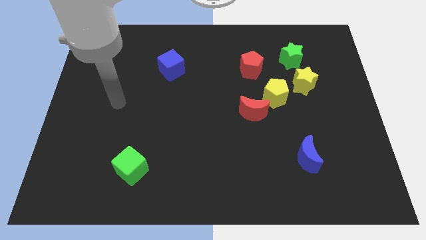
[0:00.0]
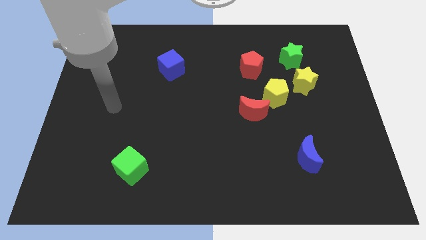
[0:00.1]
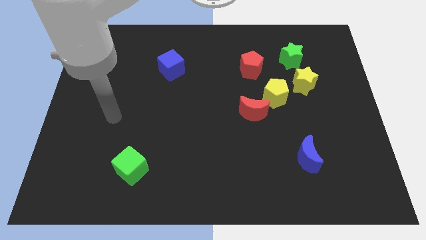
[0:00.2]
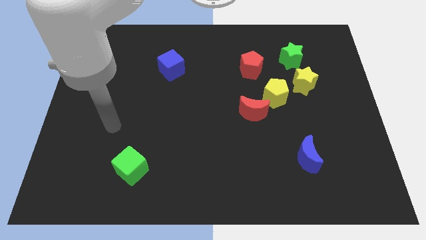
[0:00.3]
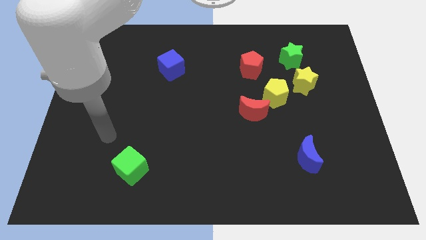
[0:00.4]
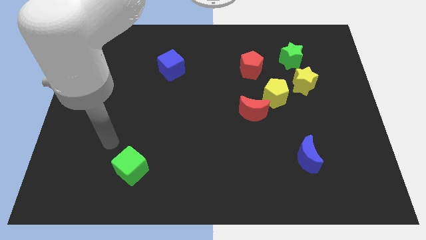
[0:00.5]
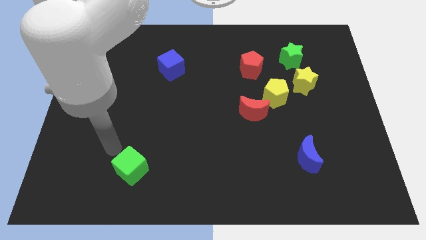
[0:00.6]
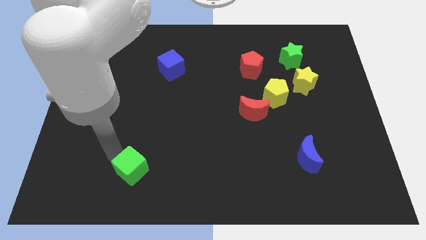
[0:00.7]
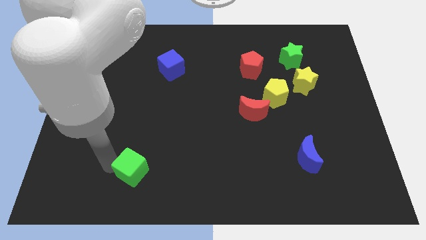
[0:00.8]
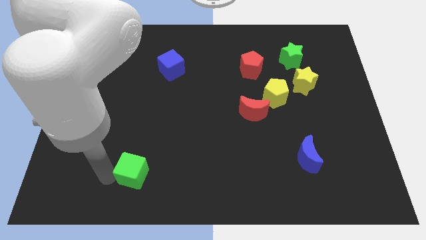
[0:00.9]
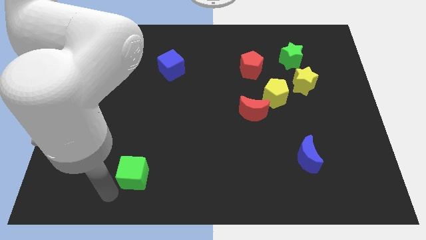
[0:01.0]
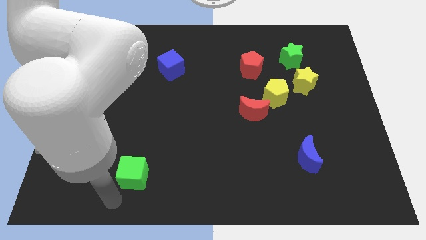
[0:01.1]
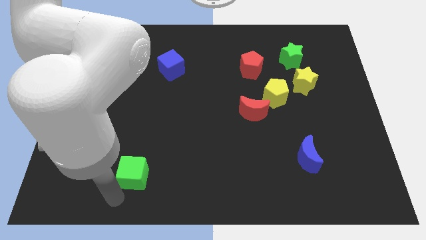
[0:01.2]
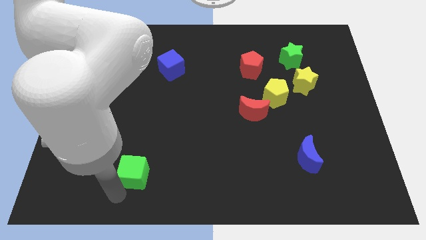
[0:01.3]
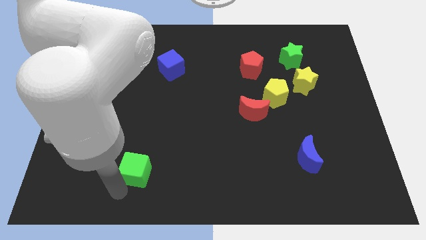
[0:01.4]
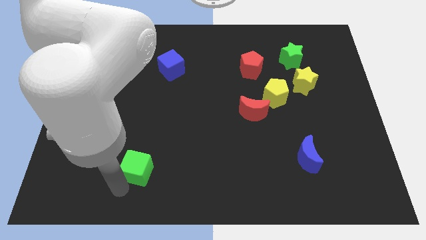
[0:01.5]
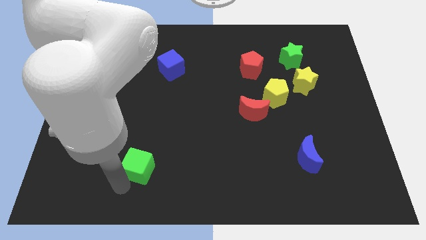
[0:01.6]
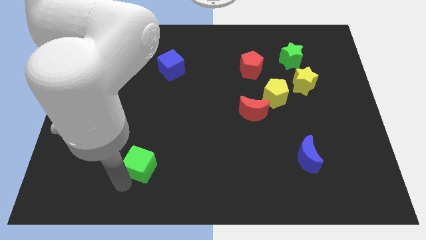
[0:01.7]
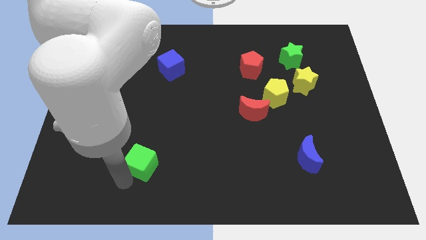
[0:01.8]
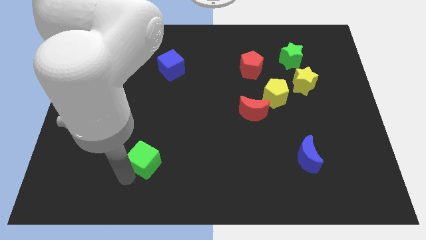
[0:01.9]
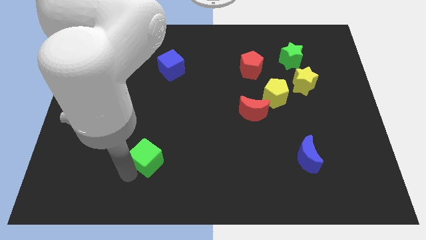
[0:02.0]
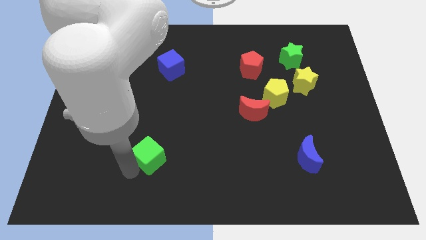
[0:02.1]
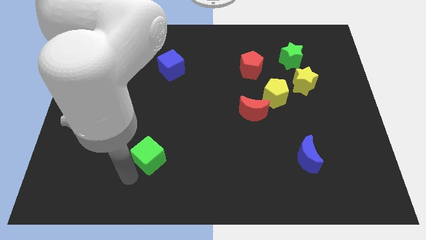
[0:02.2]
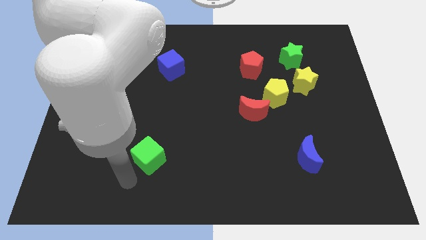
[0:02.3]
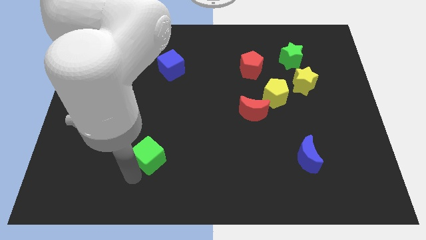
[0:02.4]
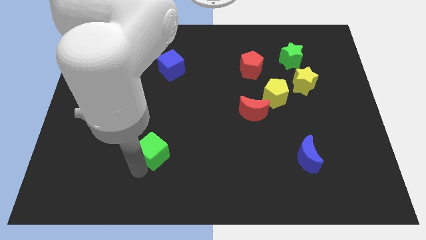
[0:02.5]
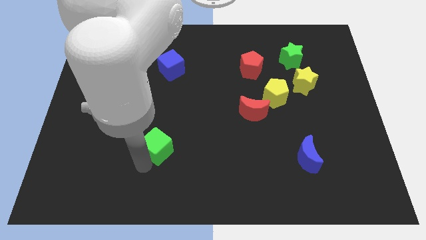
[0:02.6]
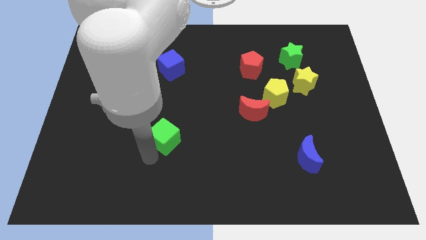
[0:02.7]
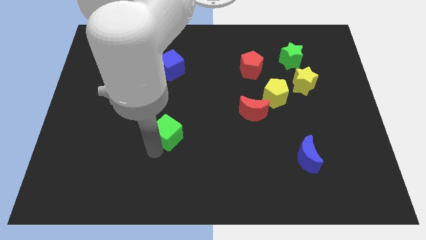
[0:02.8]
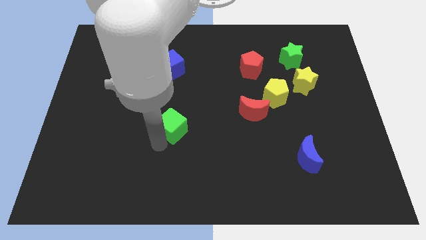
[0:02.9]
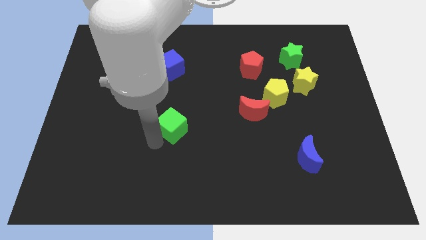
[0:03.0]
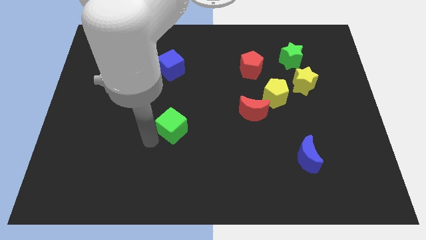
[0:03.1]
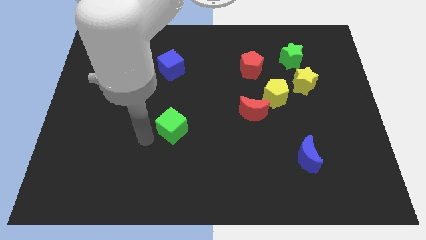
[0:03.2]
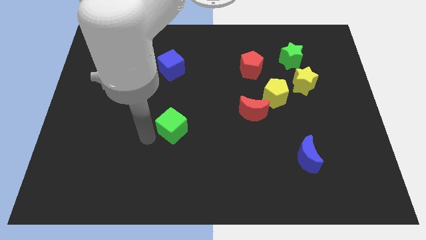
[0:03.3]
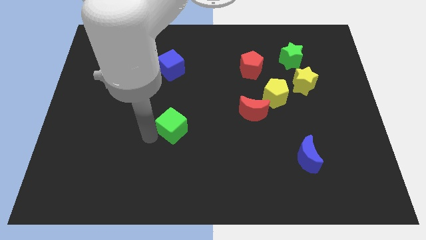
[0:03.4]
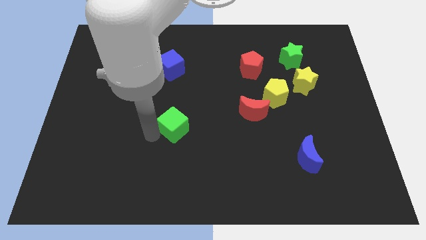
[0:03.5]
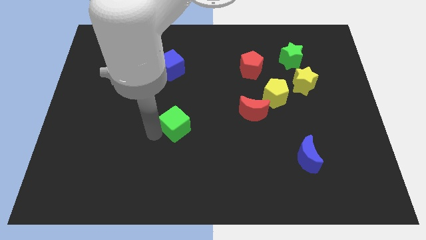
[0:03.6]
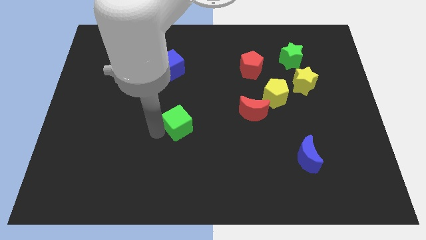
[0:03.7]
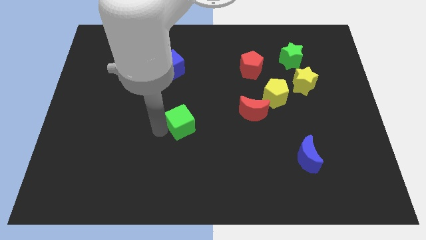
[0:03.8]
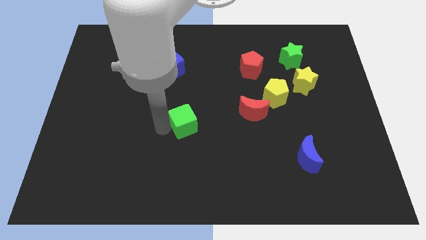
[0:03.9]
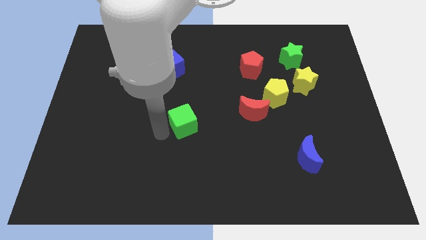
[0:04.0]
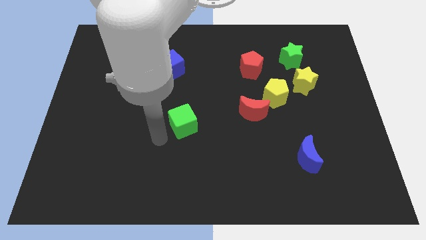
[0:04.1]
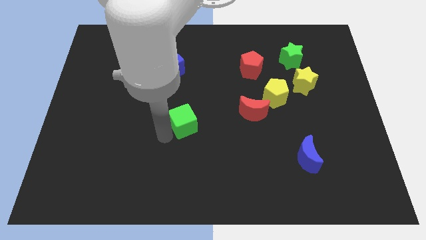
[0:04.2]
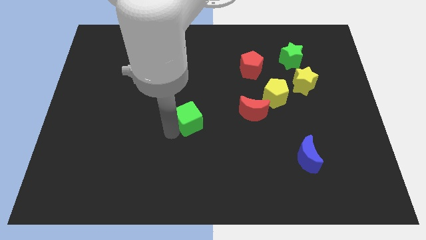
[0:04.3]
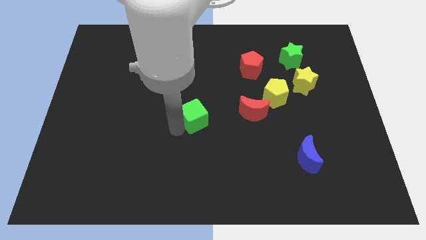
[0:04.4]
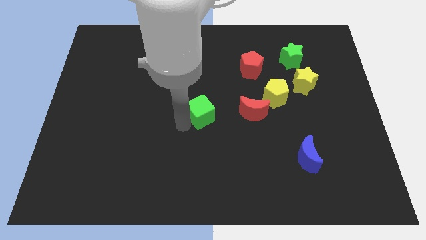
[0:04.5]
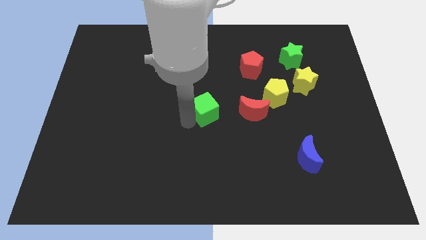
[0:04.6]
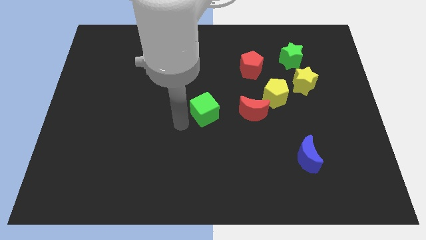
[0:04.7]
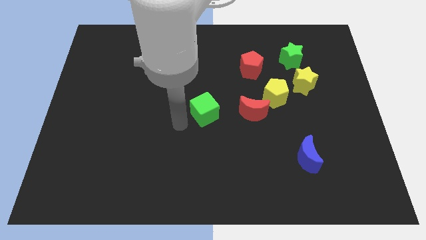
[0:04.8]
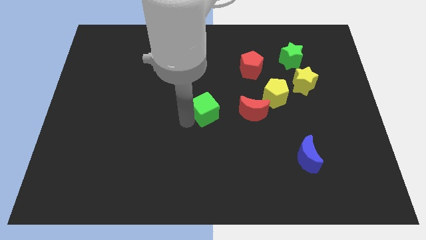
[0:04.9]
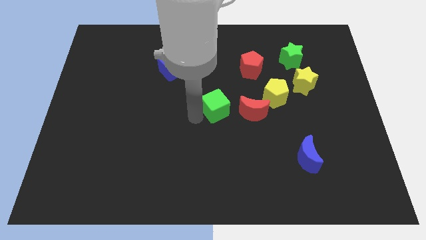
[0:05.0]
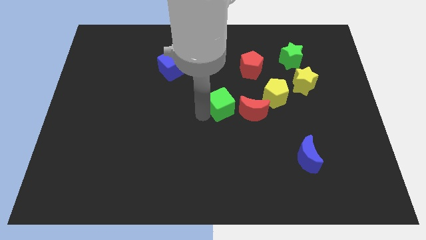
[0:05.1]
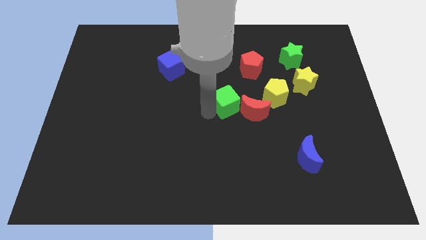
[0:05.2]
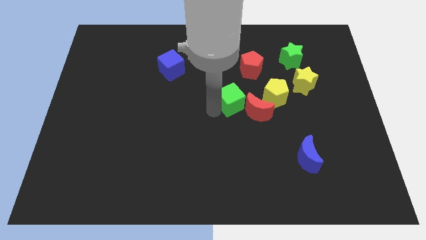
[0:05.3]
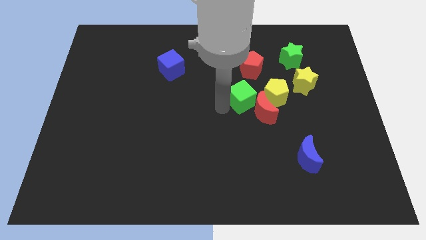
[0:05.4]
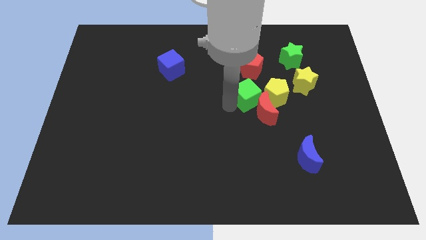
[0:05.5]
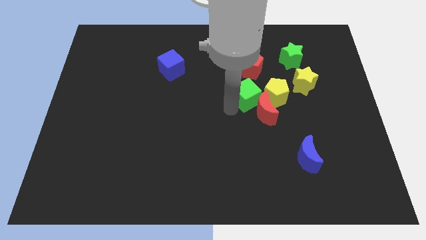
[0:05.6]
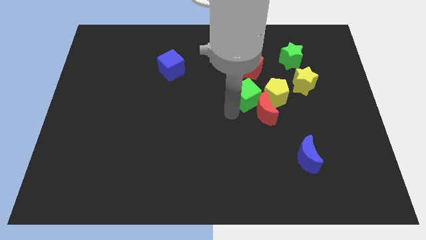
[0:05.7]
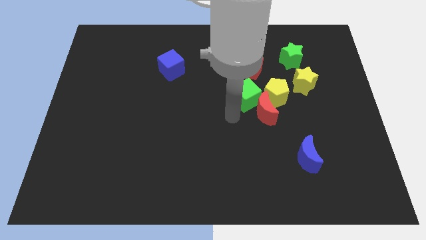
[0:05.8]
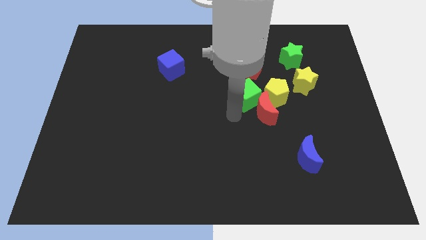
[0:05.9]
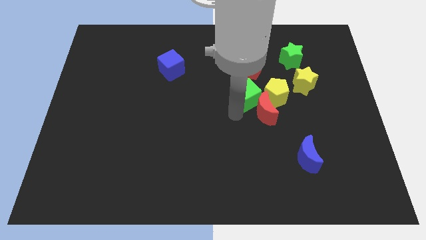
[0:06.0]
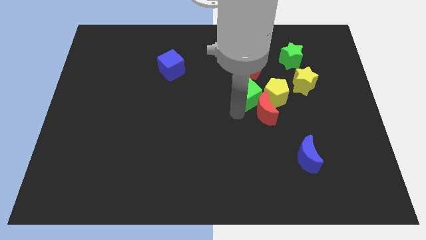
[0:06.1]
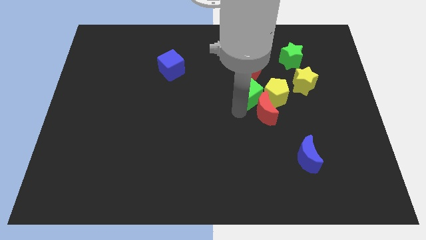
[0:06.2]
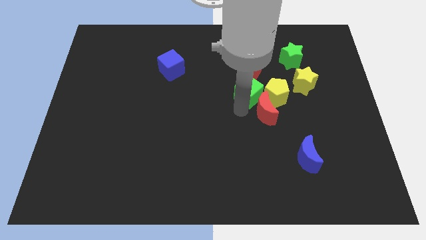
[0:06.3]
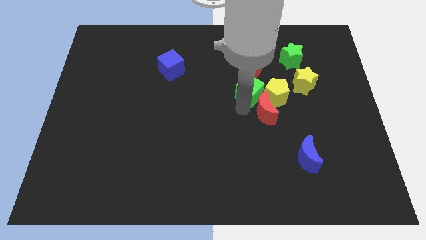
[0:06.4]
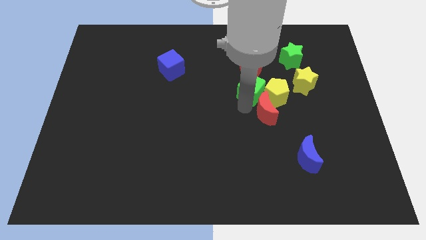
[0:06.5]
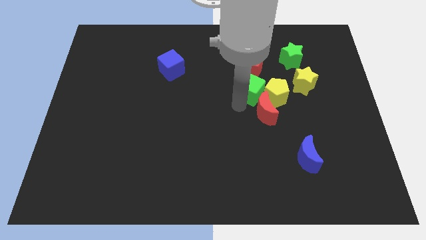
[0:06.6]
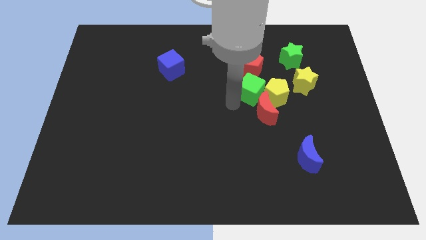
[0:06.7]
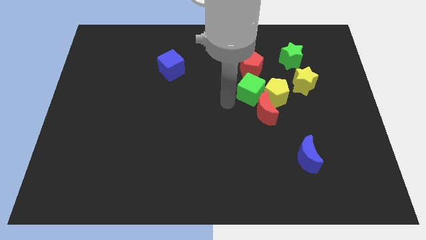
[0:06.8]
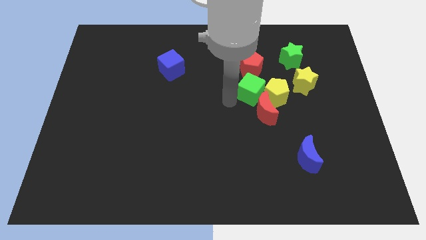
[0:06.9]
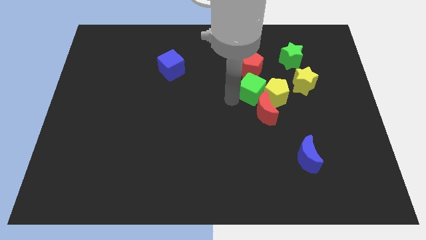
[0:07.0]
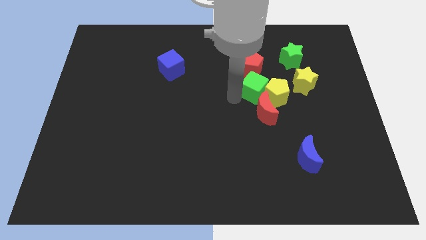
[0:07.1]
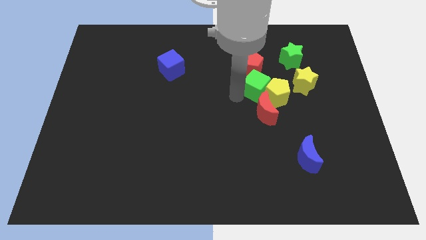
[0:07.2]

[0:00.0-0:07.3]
put the green cube diagonally down and to the right of the red pentagon
